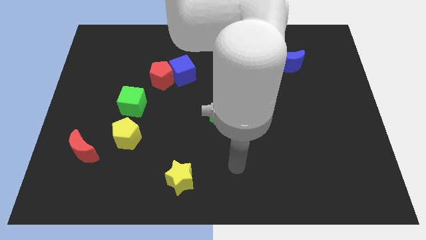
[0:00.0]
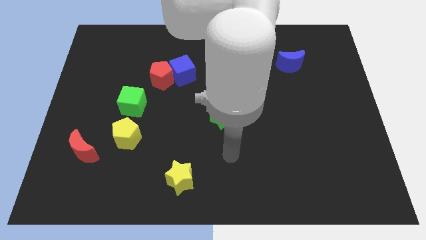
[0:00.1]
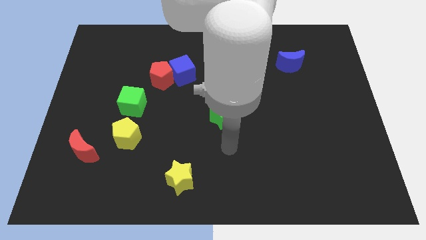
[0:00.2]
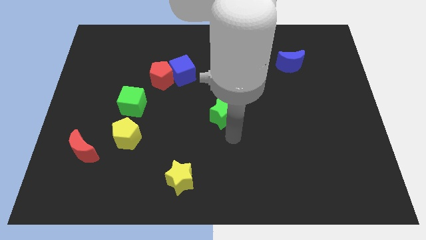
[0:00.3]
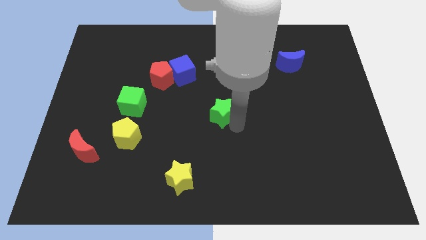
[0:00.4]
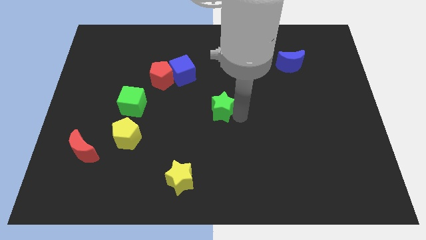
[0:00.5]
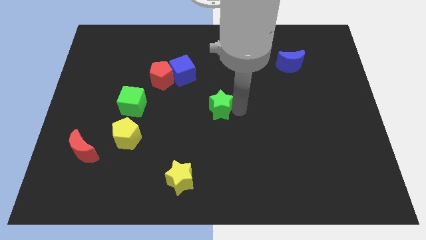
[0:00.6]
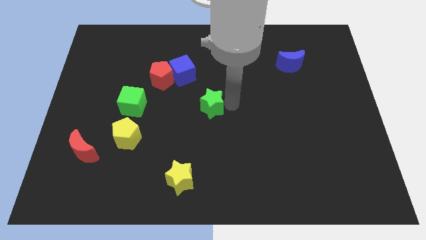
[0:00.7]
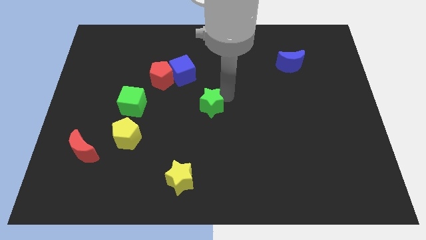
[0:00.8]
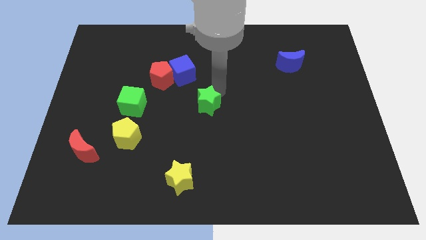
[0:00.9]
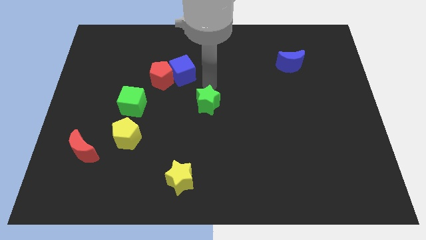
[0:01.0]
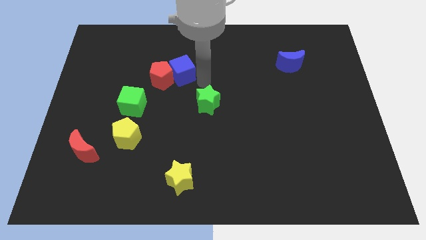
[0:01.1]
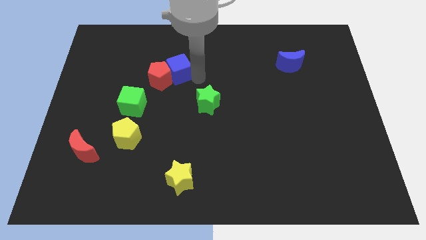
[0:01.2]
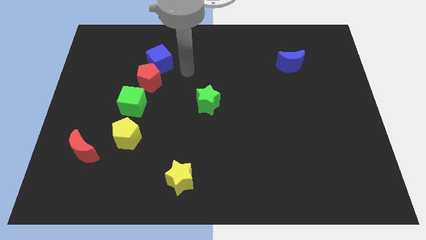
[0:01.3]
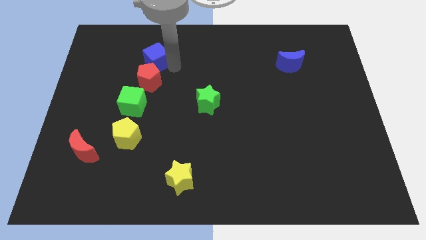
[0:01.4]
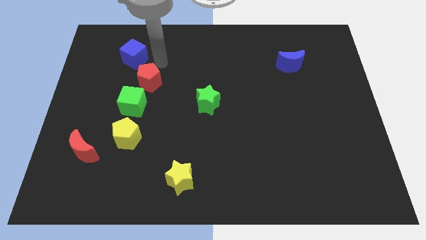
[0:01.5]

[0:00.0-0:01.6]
separate the red pentagon from the blue cube

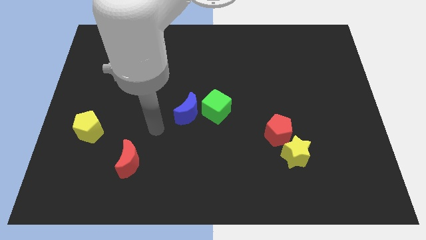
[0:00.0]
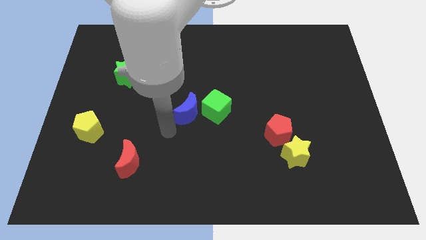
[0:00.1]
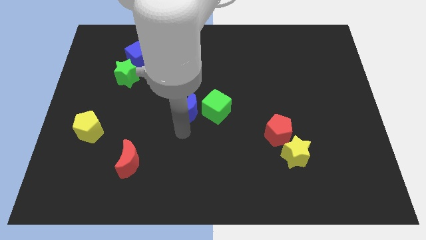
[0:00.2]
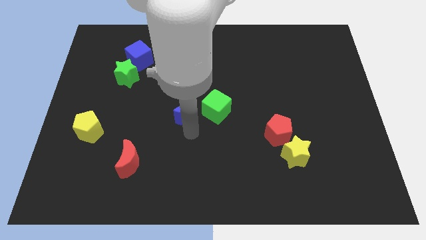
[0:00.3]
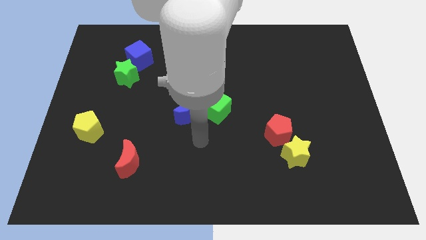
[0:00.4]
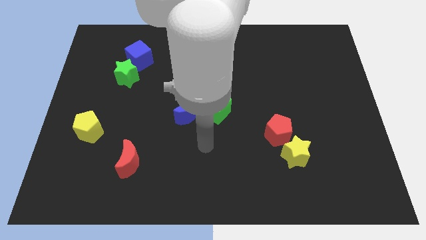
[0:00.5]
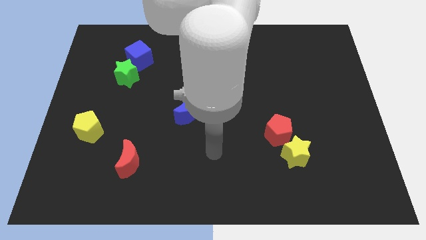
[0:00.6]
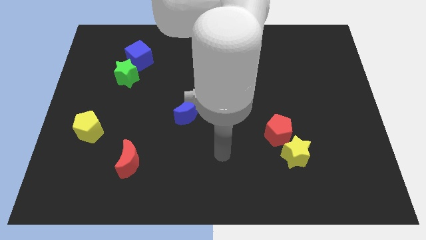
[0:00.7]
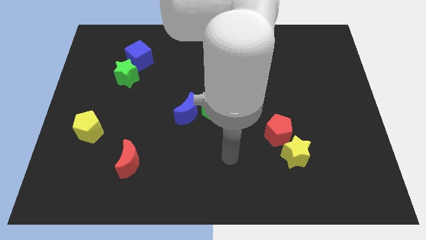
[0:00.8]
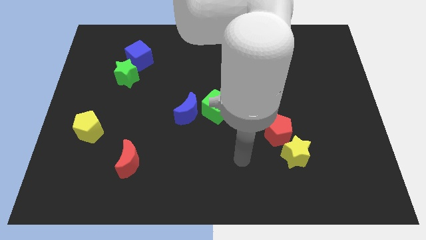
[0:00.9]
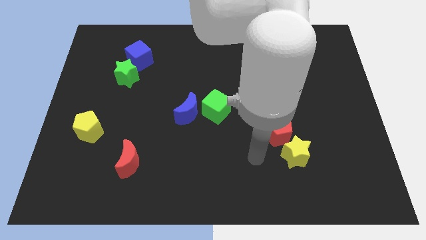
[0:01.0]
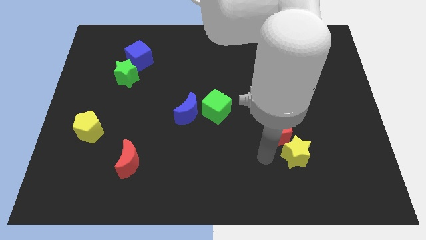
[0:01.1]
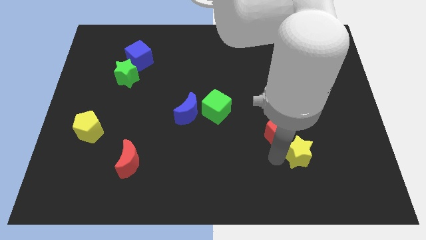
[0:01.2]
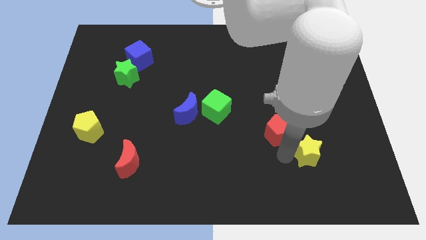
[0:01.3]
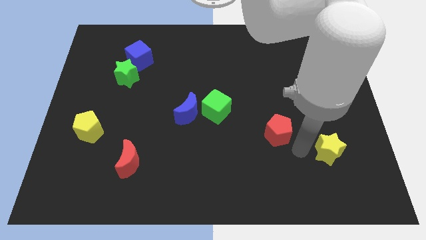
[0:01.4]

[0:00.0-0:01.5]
move the red pentagon away from the yellow star

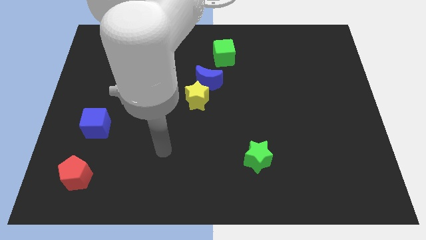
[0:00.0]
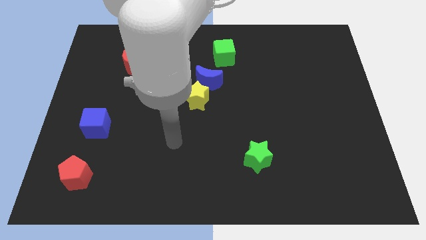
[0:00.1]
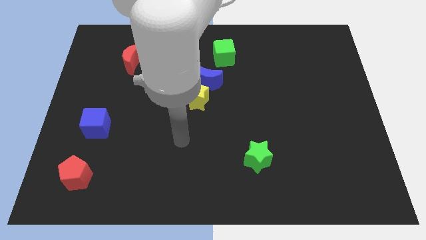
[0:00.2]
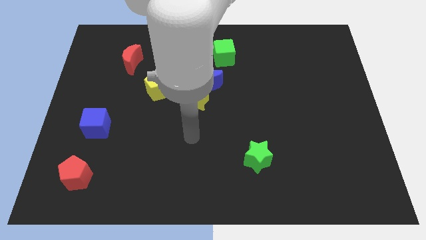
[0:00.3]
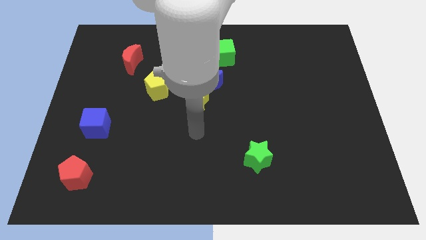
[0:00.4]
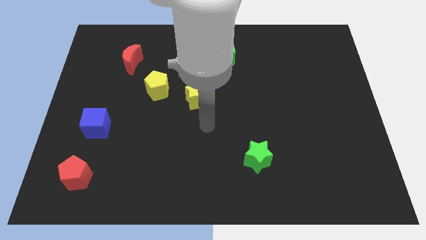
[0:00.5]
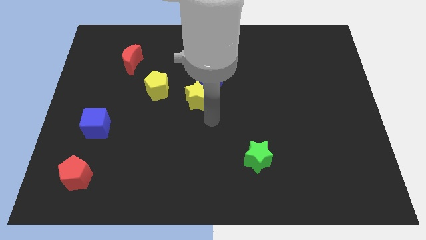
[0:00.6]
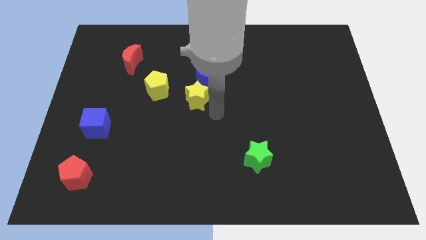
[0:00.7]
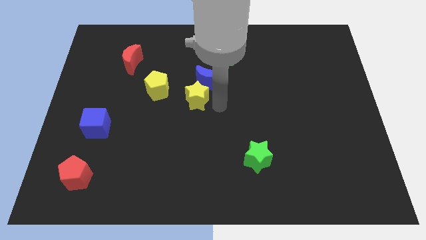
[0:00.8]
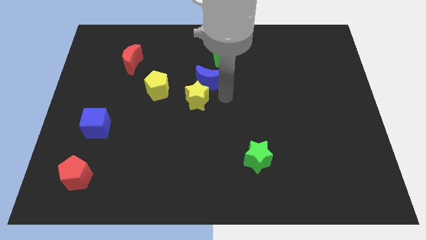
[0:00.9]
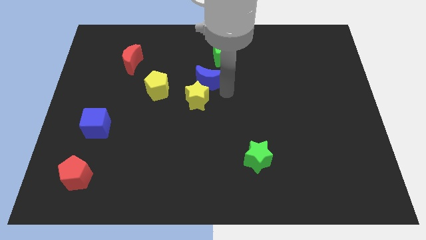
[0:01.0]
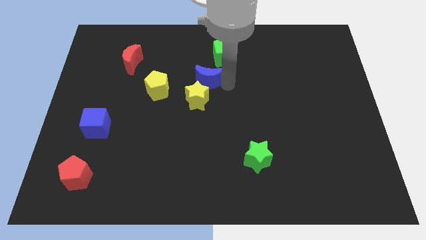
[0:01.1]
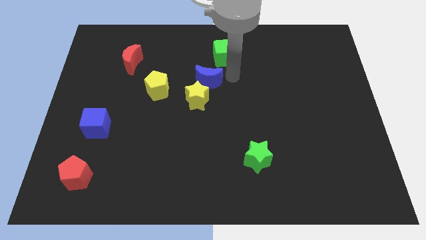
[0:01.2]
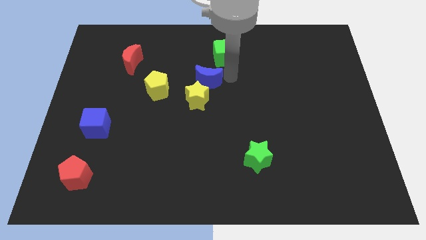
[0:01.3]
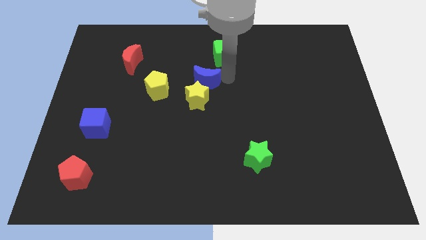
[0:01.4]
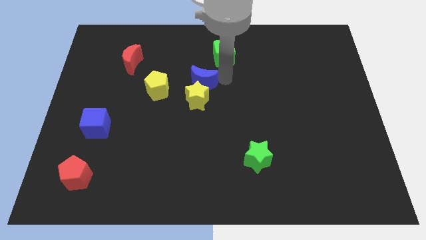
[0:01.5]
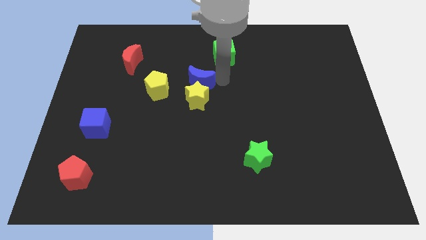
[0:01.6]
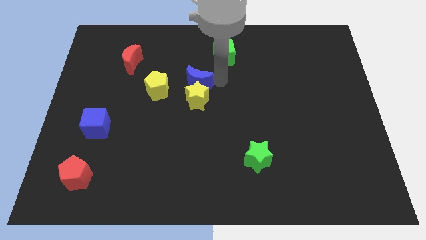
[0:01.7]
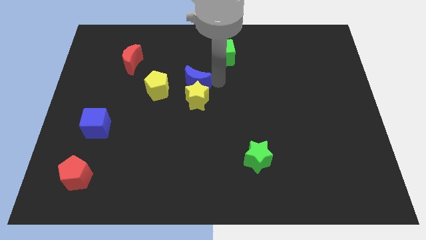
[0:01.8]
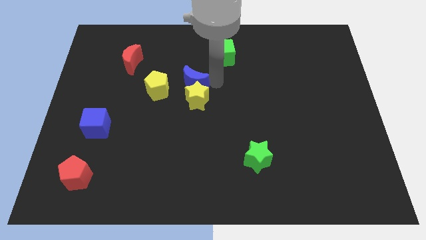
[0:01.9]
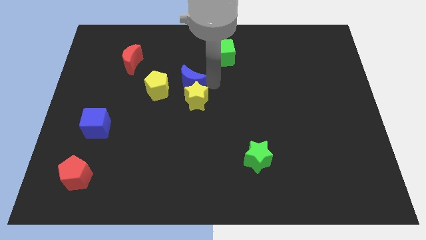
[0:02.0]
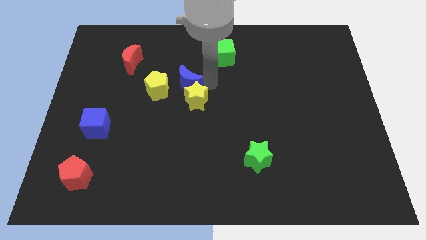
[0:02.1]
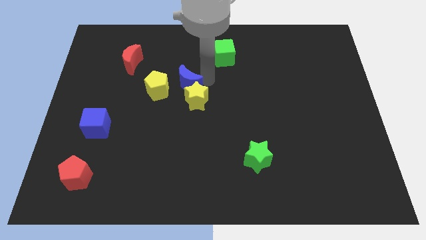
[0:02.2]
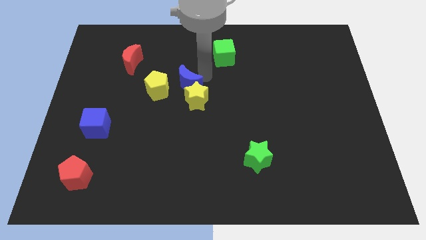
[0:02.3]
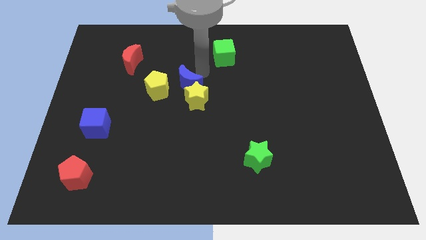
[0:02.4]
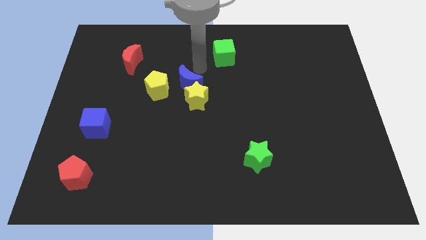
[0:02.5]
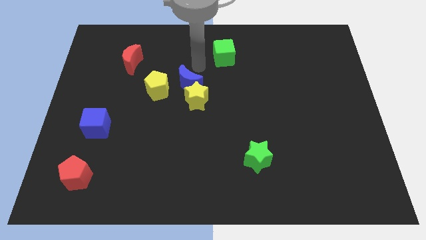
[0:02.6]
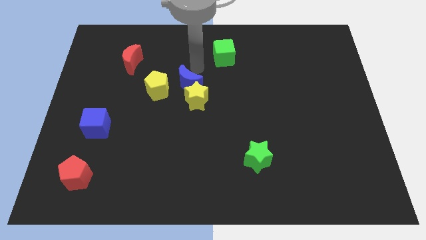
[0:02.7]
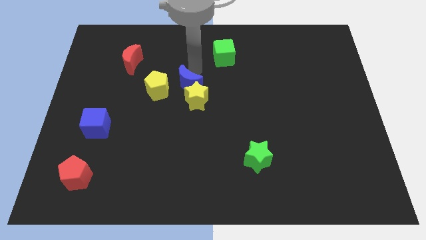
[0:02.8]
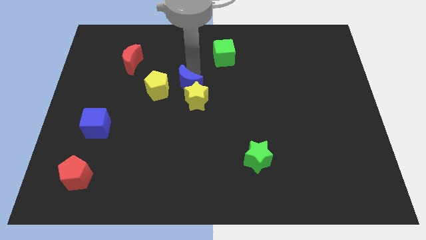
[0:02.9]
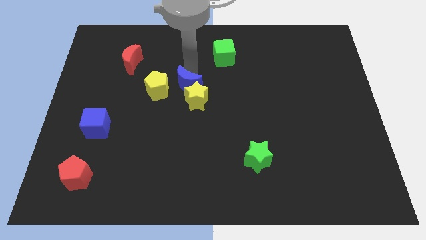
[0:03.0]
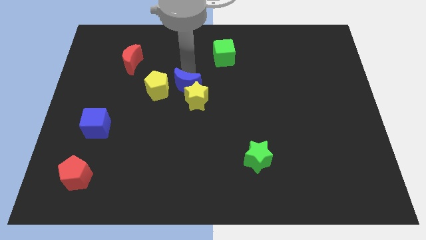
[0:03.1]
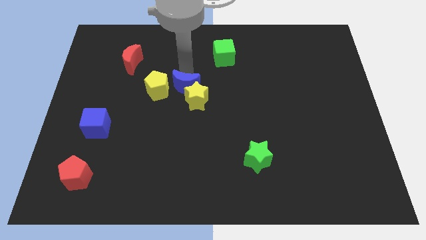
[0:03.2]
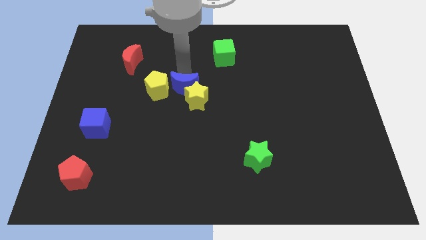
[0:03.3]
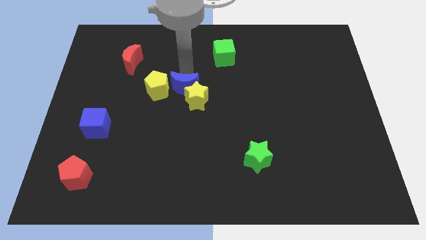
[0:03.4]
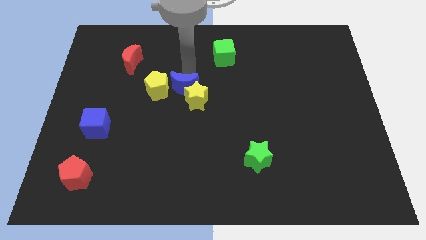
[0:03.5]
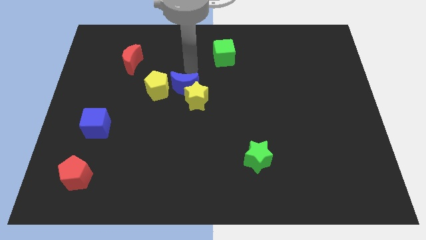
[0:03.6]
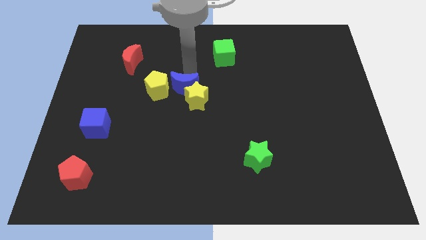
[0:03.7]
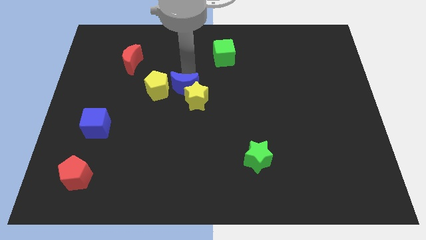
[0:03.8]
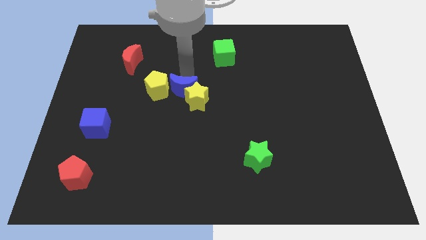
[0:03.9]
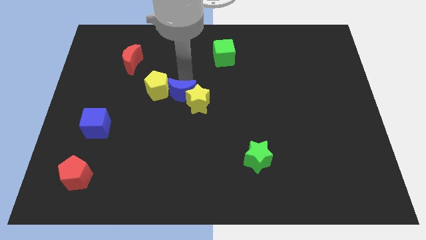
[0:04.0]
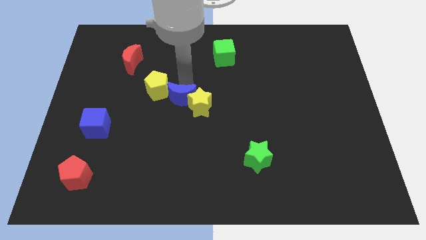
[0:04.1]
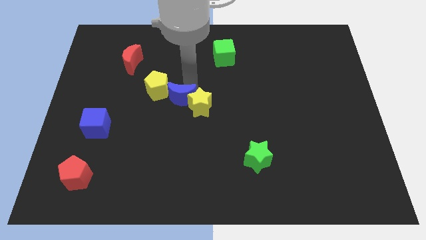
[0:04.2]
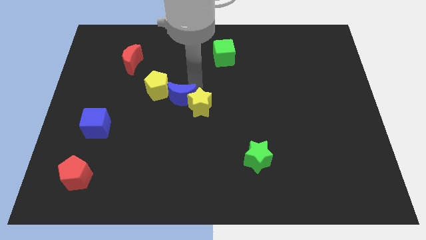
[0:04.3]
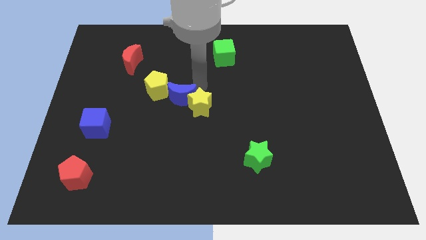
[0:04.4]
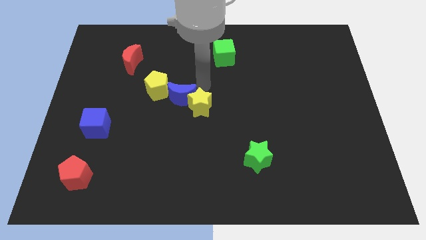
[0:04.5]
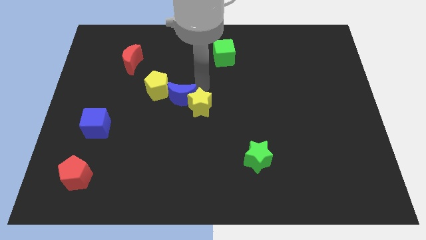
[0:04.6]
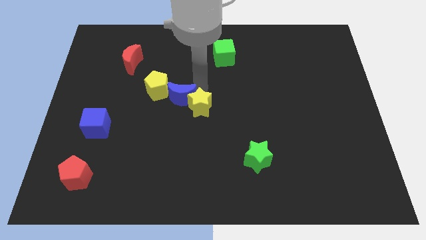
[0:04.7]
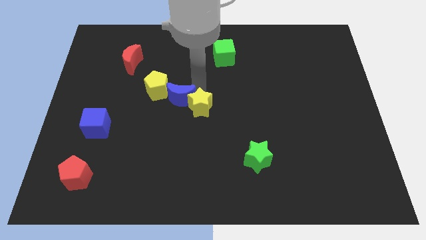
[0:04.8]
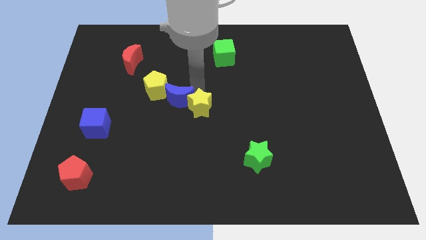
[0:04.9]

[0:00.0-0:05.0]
pull the blue moon apart from the yellow star and green cube

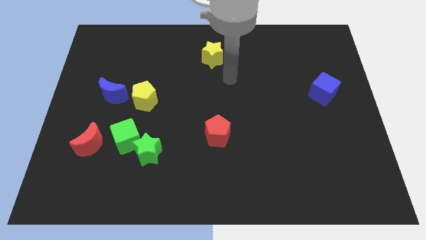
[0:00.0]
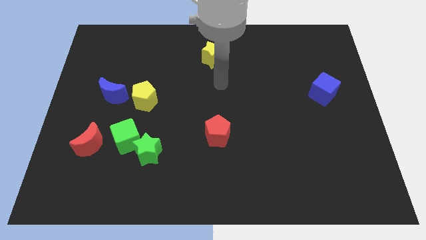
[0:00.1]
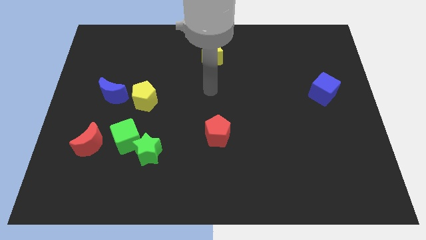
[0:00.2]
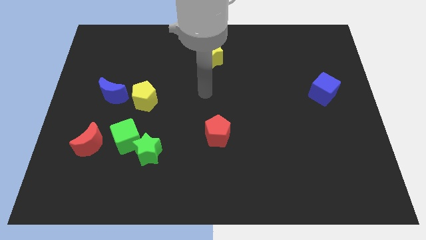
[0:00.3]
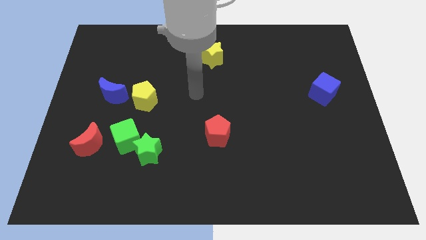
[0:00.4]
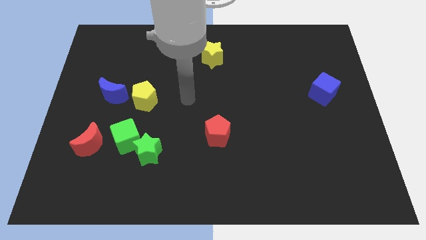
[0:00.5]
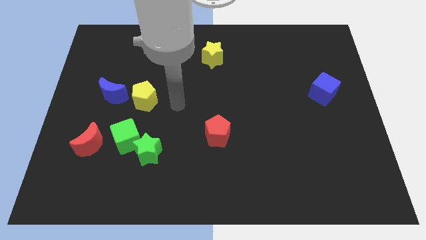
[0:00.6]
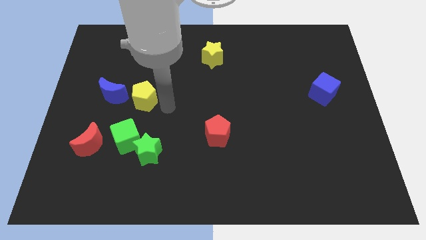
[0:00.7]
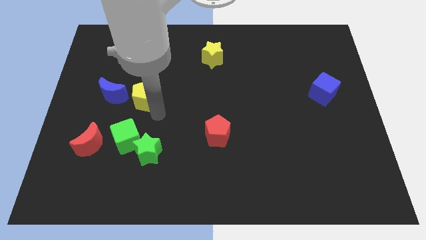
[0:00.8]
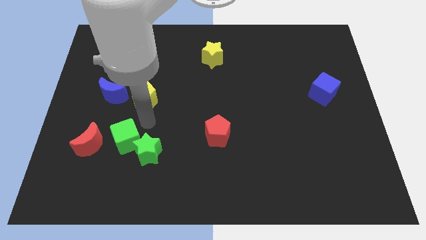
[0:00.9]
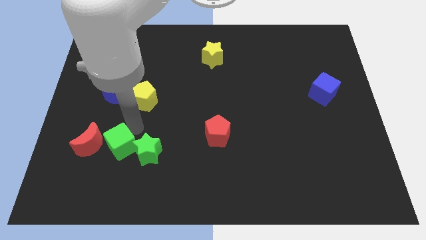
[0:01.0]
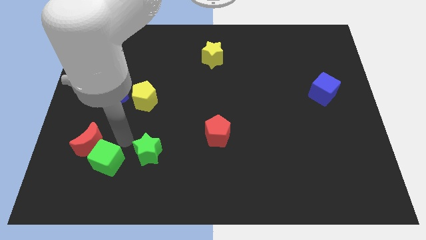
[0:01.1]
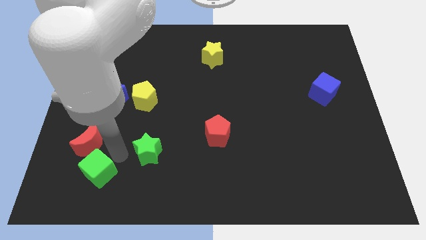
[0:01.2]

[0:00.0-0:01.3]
move the green star away from the green cube
